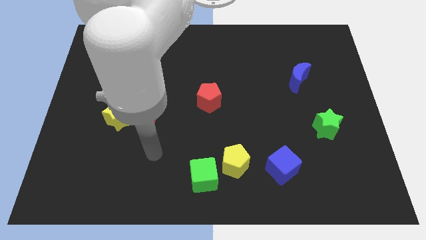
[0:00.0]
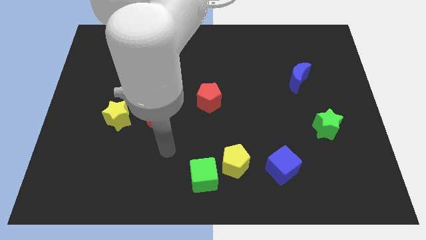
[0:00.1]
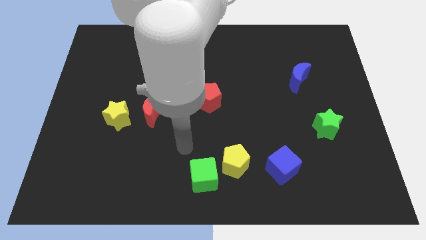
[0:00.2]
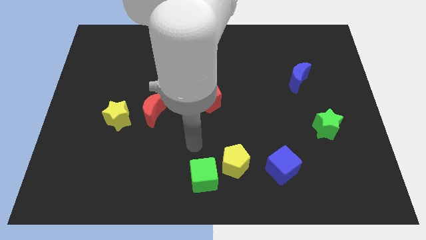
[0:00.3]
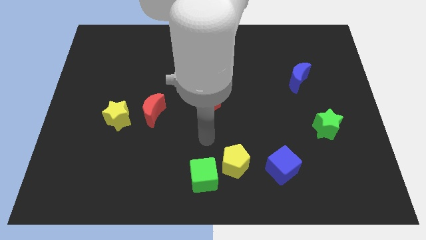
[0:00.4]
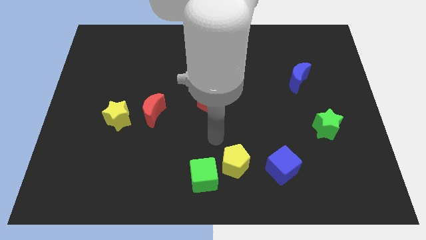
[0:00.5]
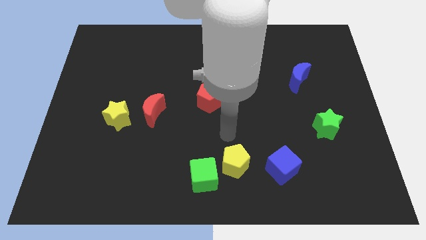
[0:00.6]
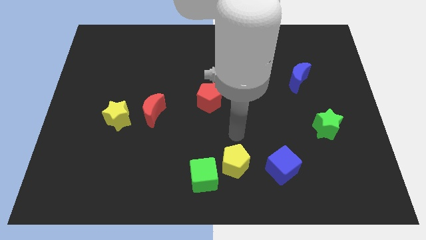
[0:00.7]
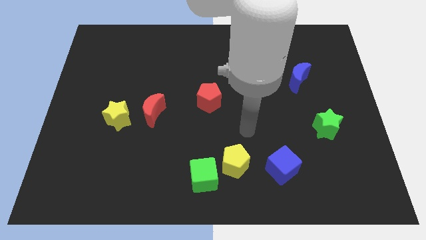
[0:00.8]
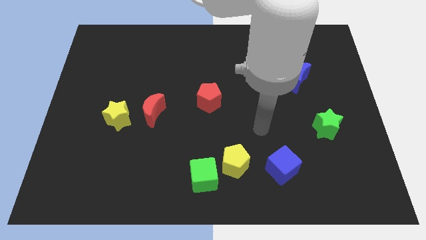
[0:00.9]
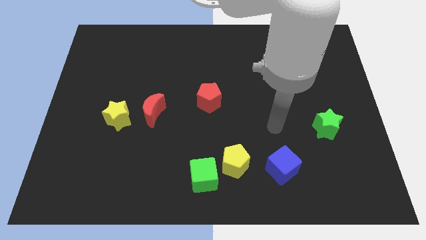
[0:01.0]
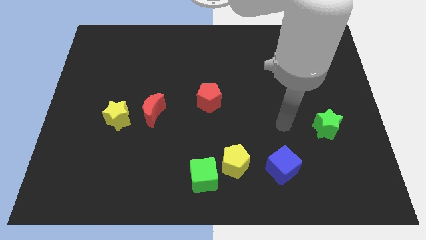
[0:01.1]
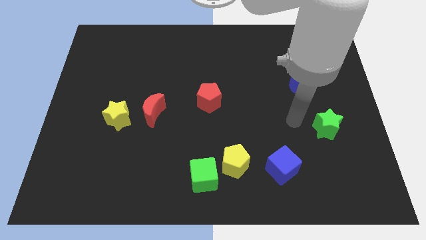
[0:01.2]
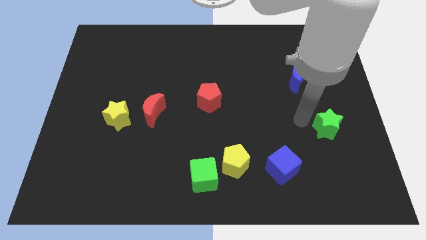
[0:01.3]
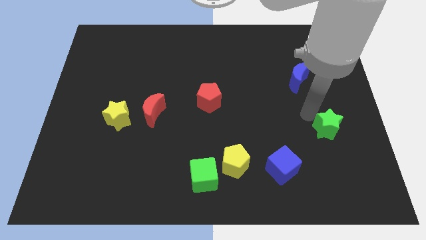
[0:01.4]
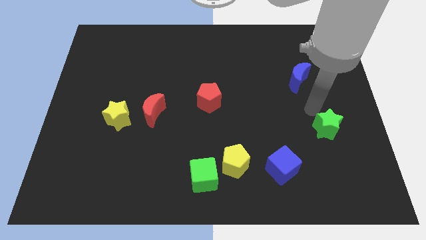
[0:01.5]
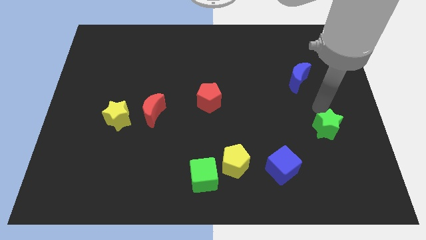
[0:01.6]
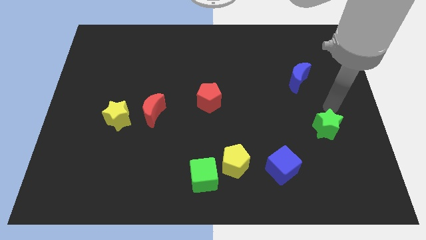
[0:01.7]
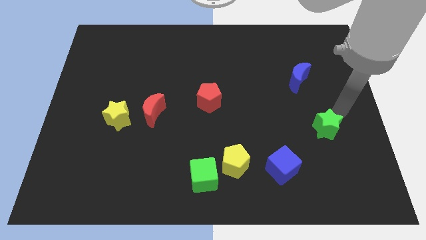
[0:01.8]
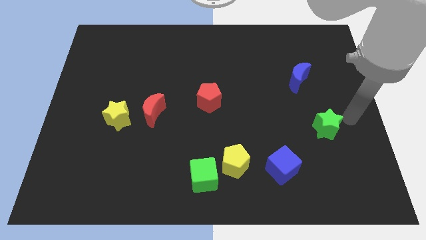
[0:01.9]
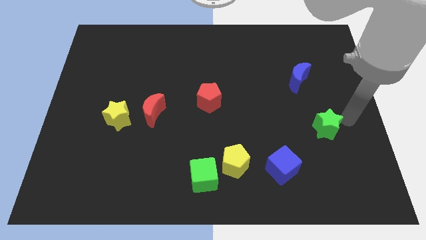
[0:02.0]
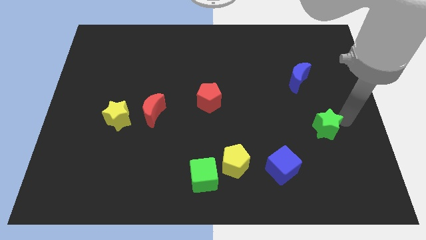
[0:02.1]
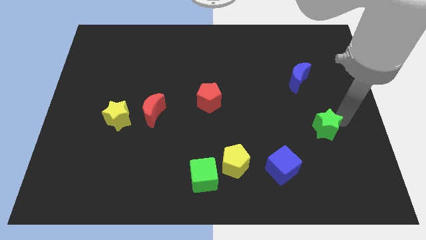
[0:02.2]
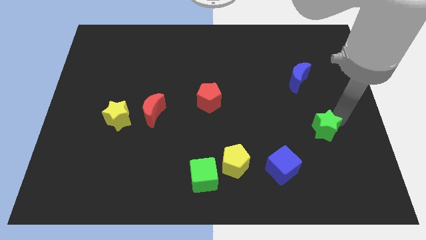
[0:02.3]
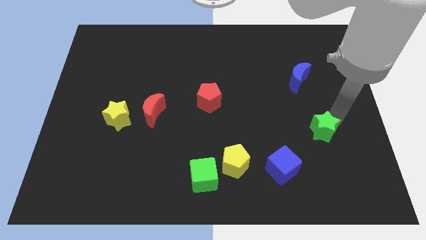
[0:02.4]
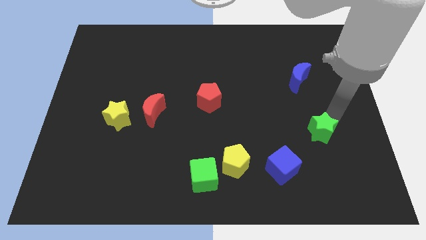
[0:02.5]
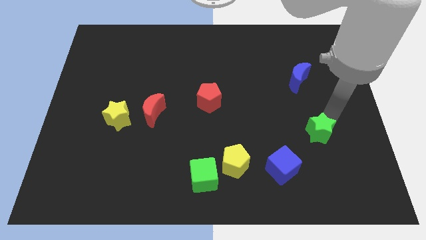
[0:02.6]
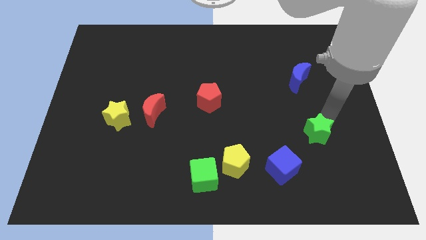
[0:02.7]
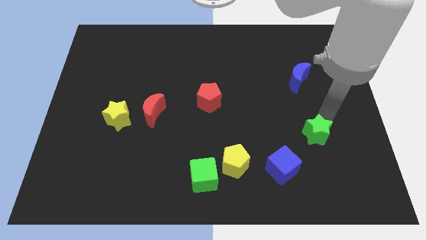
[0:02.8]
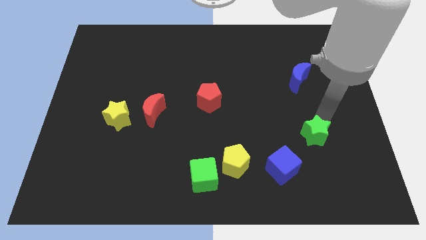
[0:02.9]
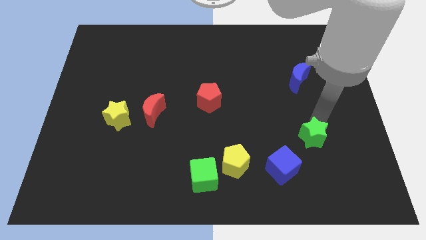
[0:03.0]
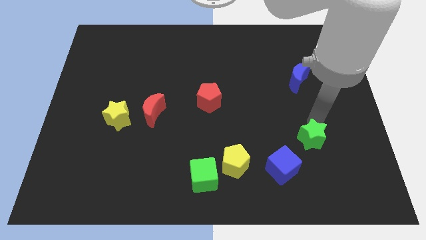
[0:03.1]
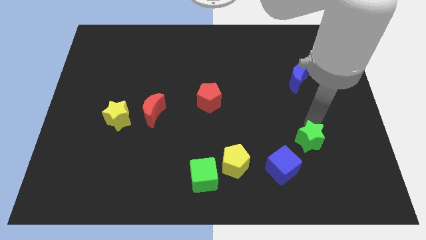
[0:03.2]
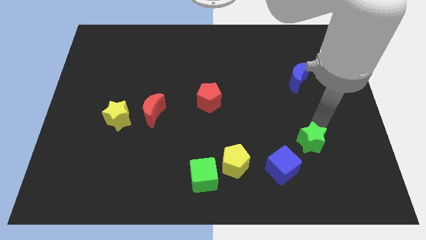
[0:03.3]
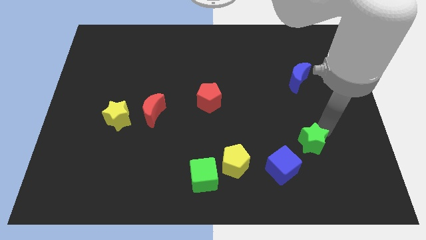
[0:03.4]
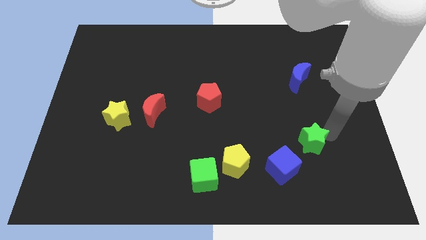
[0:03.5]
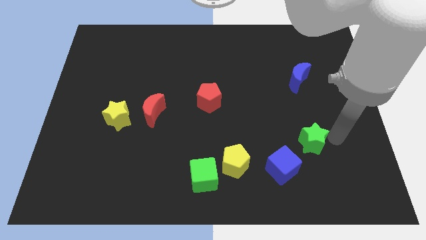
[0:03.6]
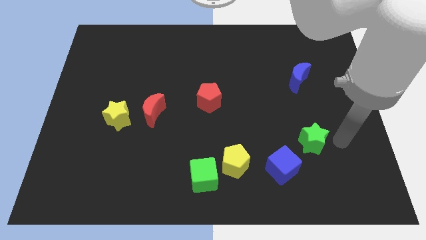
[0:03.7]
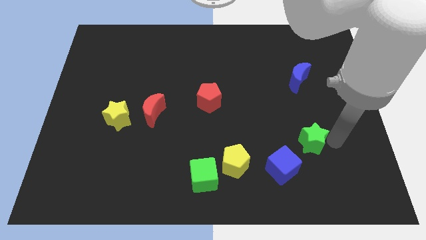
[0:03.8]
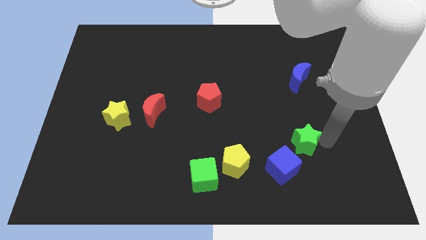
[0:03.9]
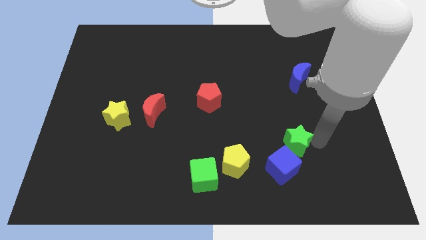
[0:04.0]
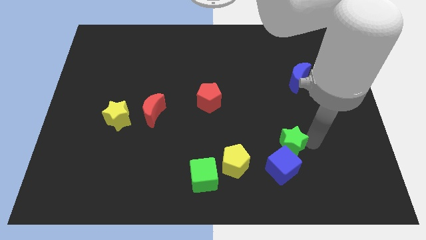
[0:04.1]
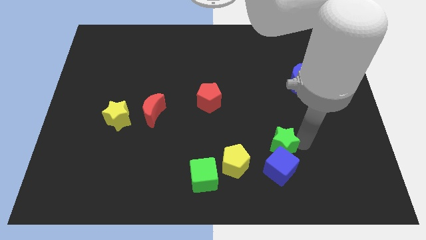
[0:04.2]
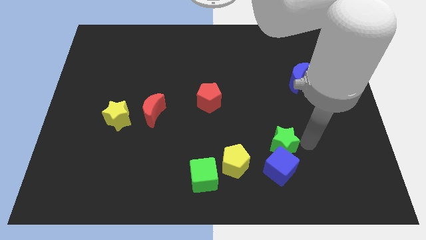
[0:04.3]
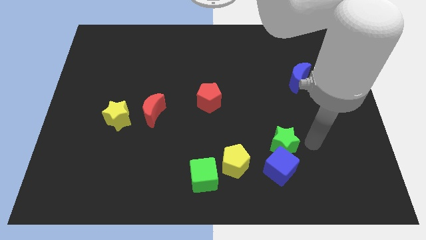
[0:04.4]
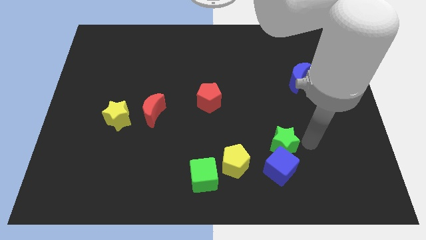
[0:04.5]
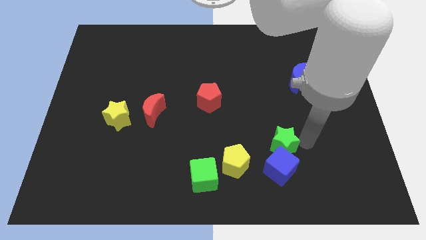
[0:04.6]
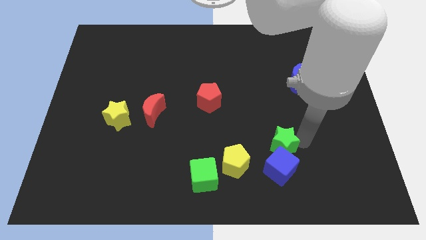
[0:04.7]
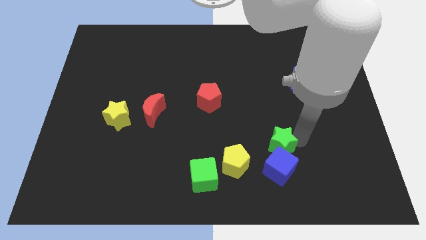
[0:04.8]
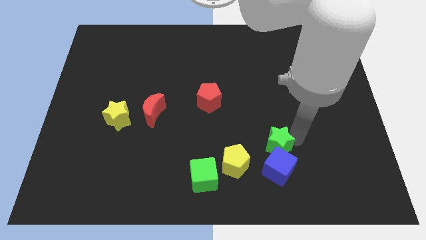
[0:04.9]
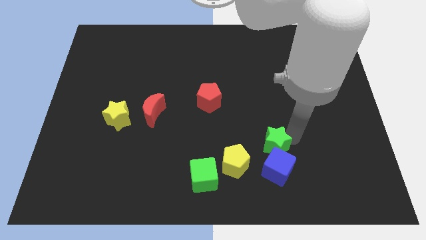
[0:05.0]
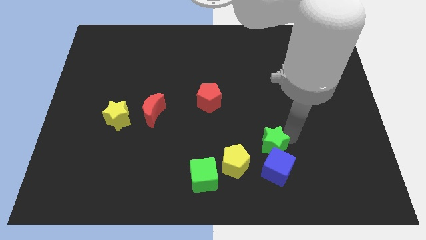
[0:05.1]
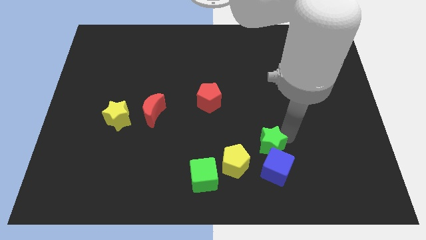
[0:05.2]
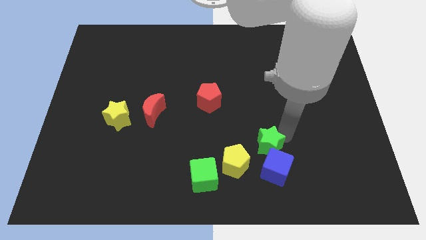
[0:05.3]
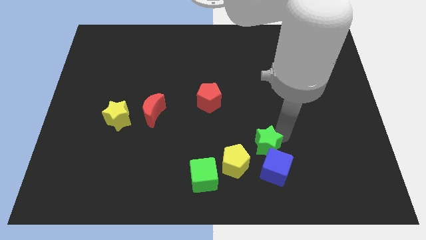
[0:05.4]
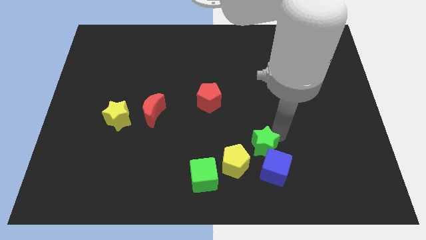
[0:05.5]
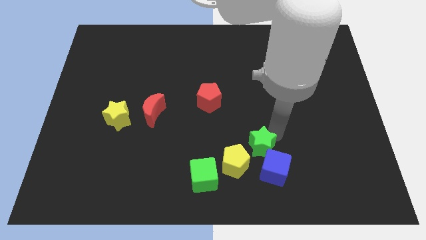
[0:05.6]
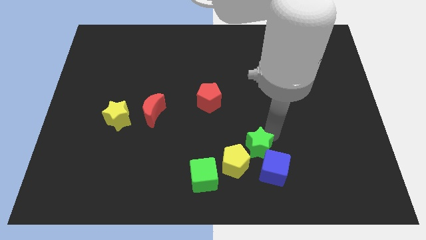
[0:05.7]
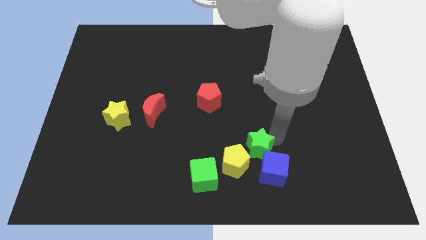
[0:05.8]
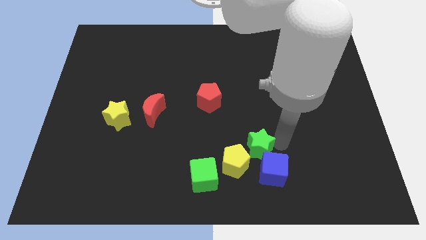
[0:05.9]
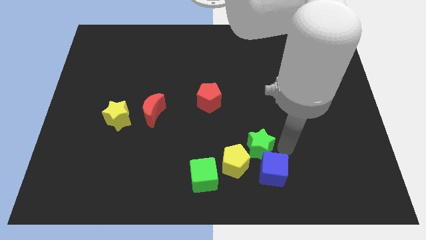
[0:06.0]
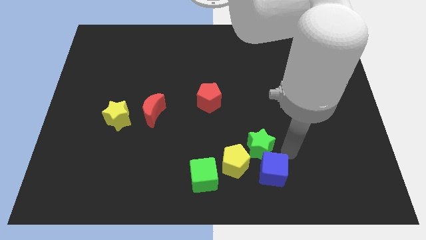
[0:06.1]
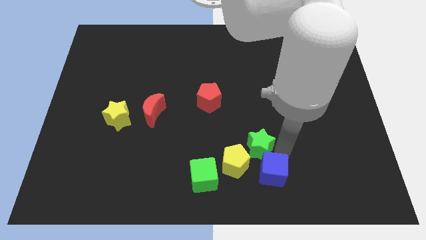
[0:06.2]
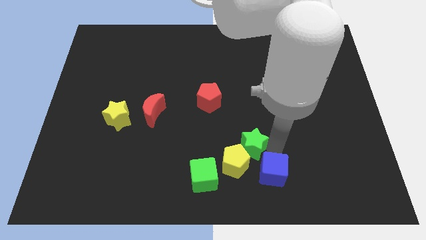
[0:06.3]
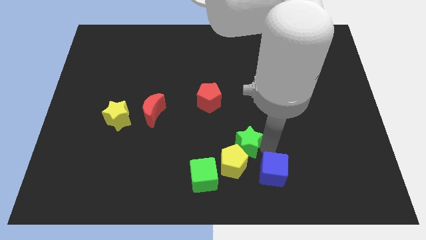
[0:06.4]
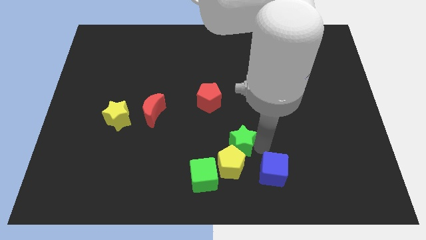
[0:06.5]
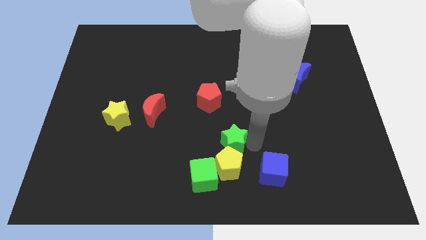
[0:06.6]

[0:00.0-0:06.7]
push the green star to the top left side of the yellow pentagon

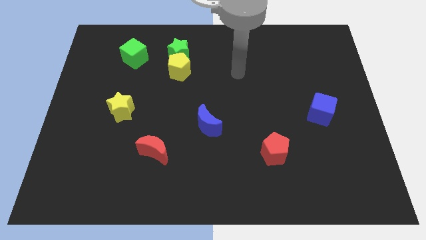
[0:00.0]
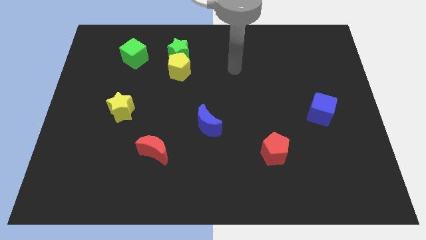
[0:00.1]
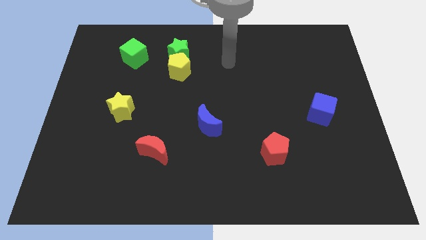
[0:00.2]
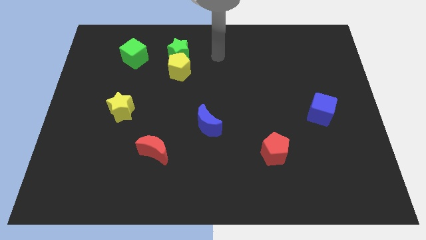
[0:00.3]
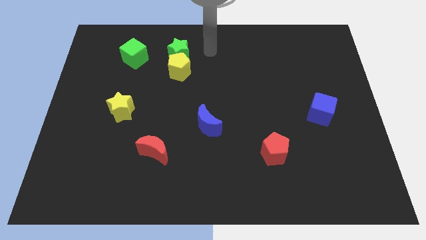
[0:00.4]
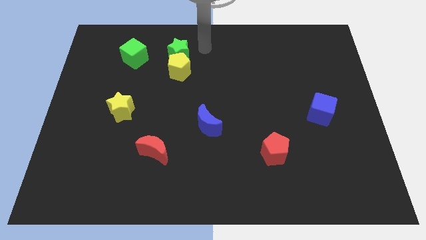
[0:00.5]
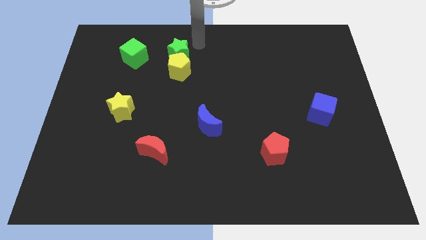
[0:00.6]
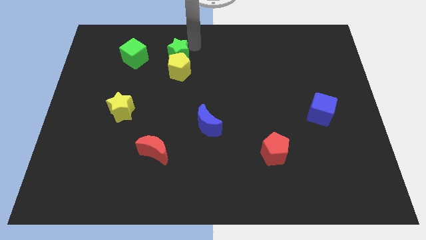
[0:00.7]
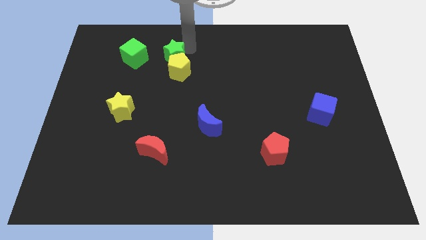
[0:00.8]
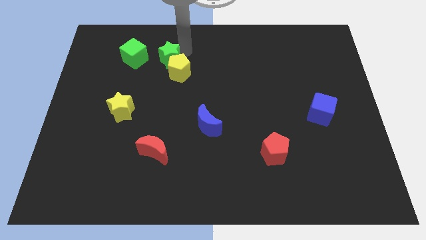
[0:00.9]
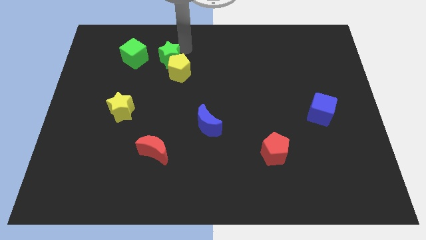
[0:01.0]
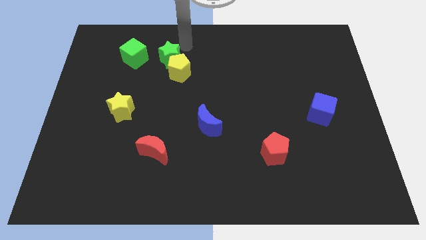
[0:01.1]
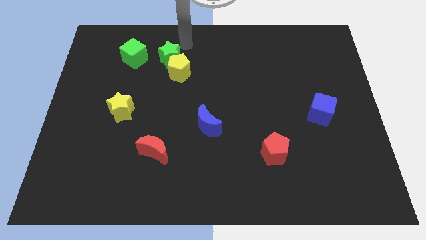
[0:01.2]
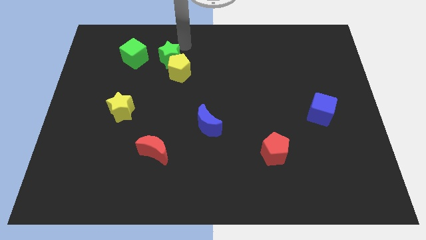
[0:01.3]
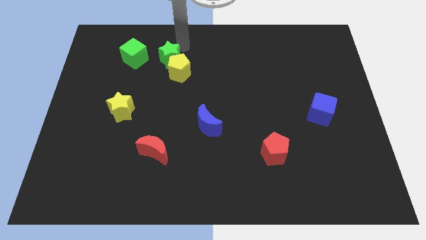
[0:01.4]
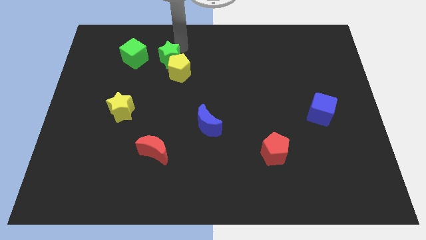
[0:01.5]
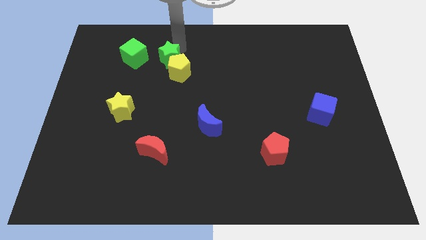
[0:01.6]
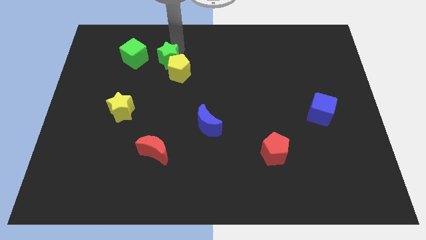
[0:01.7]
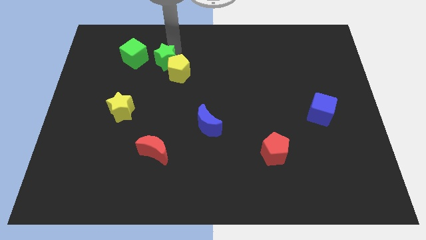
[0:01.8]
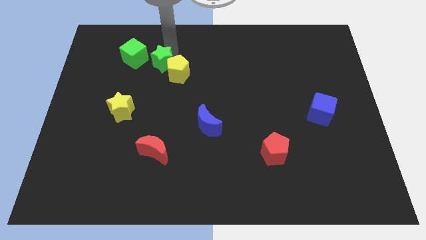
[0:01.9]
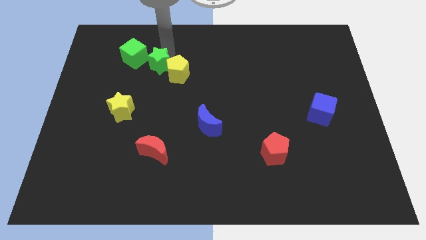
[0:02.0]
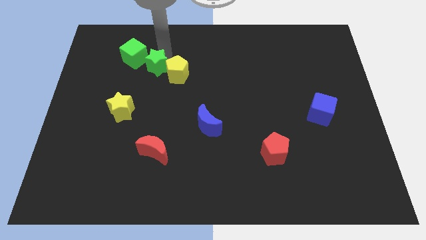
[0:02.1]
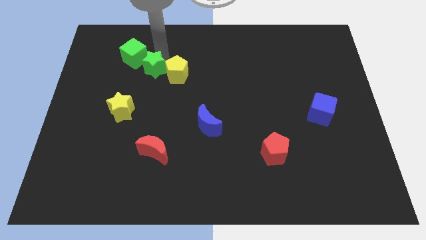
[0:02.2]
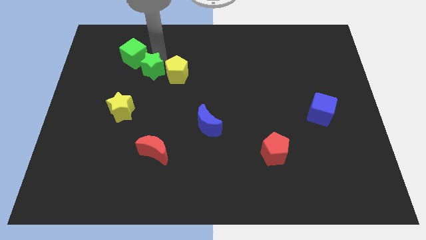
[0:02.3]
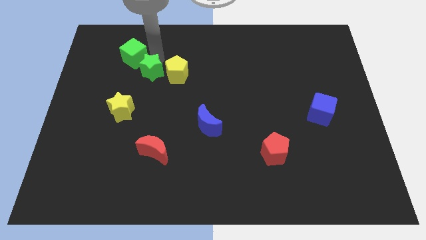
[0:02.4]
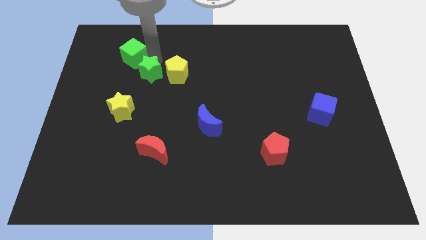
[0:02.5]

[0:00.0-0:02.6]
move the green star to the bottom left side of the yellow pentagon
